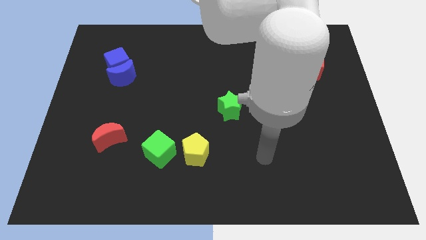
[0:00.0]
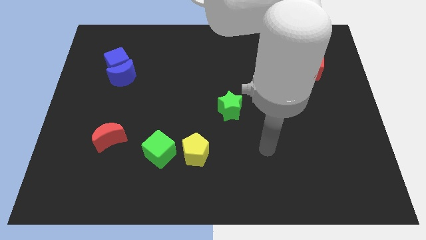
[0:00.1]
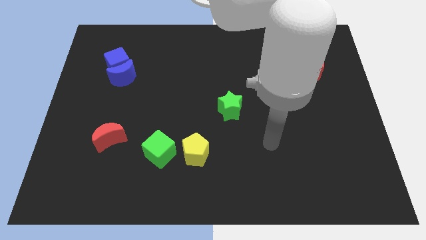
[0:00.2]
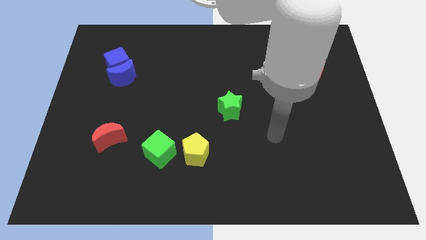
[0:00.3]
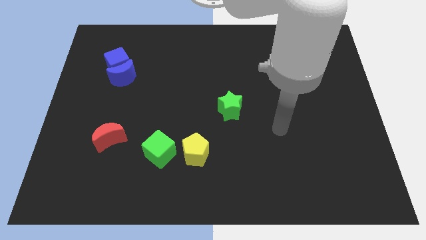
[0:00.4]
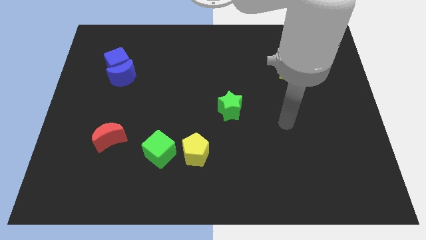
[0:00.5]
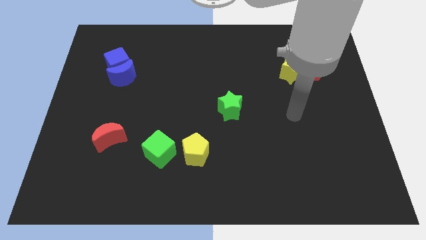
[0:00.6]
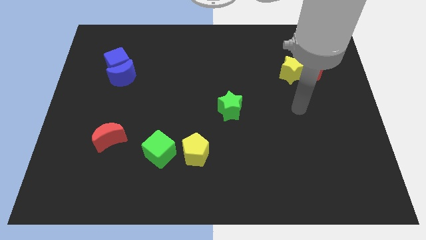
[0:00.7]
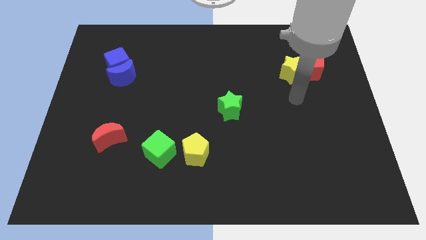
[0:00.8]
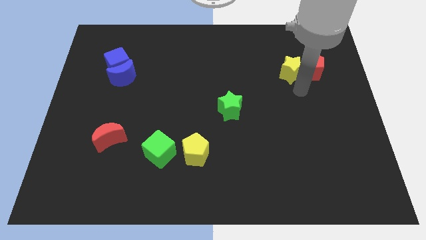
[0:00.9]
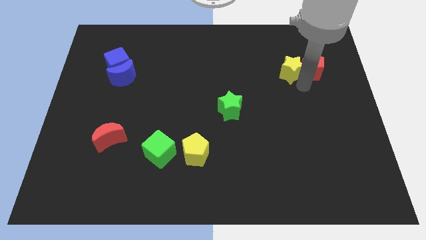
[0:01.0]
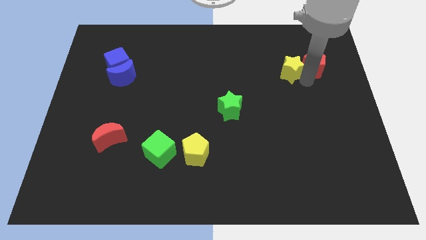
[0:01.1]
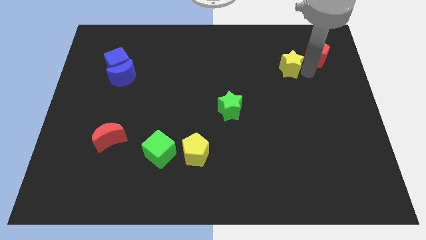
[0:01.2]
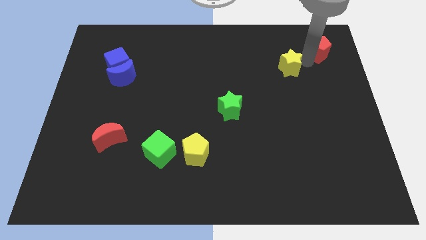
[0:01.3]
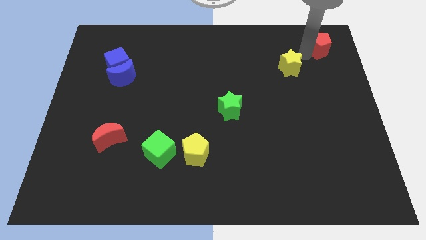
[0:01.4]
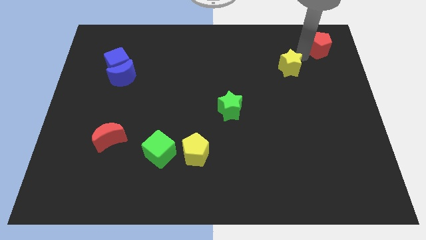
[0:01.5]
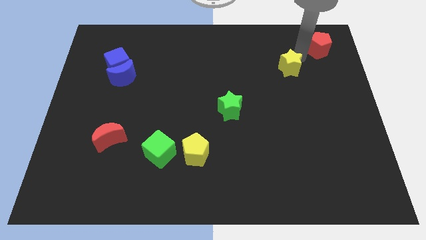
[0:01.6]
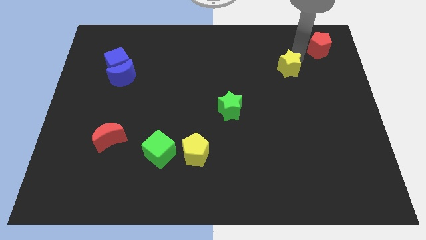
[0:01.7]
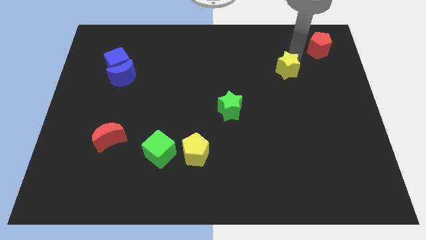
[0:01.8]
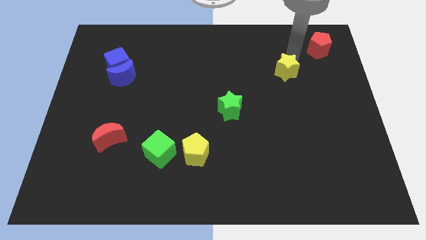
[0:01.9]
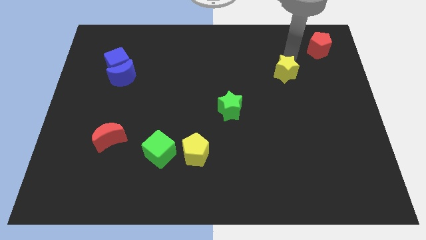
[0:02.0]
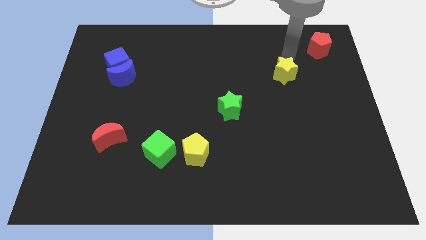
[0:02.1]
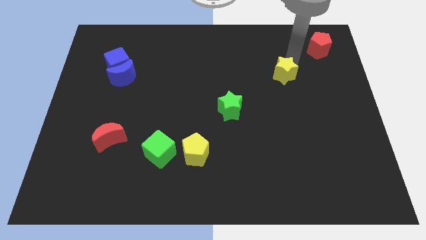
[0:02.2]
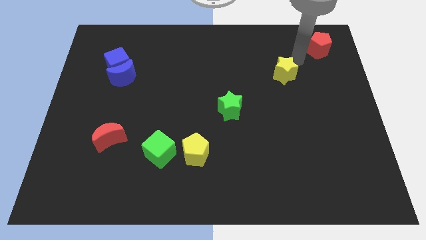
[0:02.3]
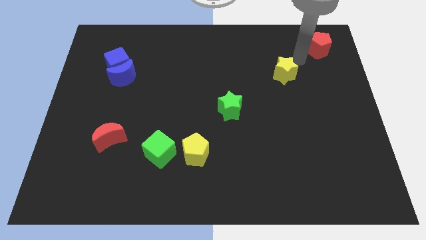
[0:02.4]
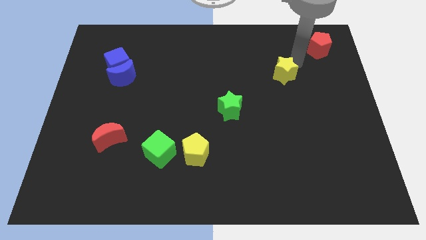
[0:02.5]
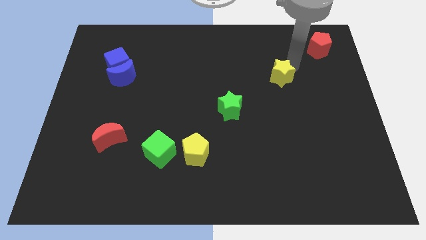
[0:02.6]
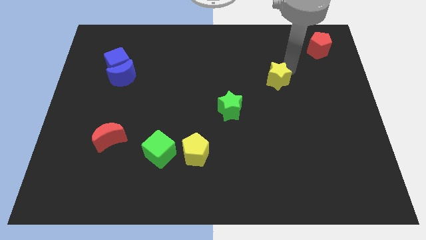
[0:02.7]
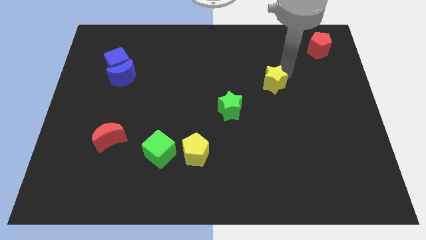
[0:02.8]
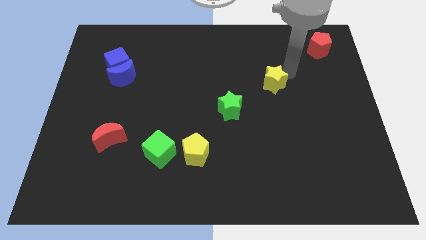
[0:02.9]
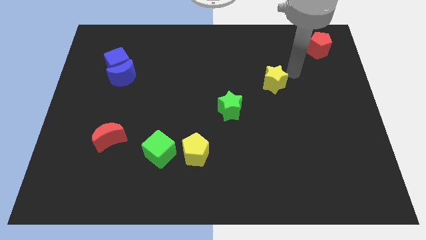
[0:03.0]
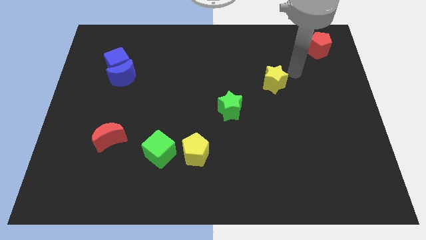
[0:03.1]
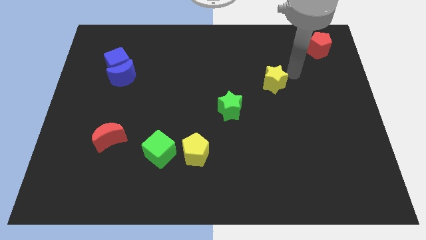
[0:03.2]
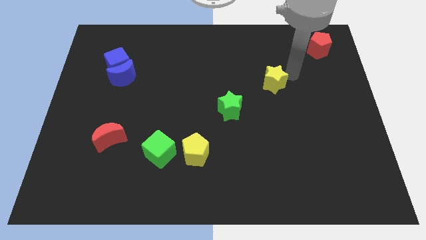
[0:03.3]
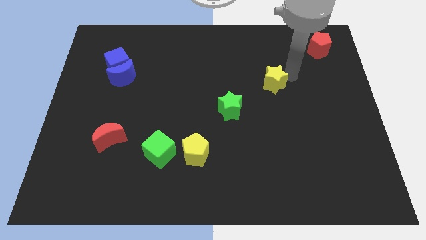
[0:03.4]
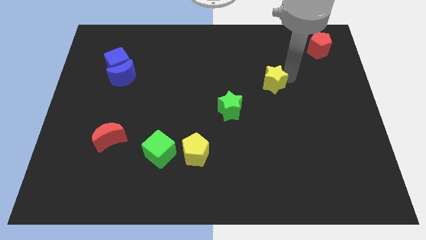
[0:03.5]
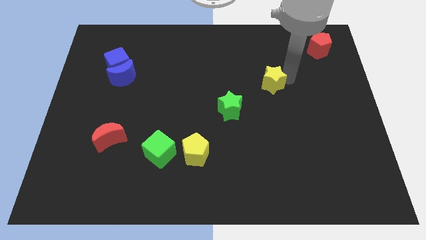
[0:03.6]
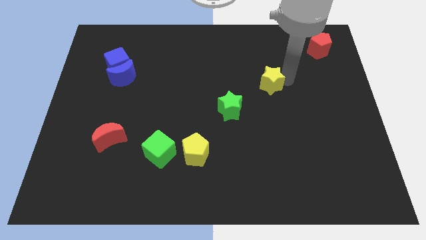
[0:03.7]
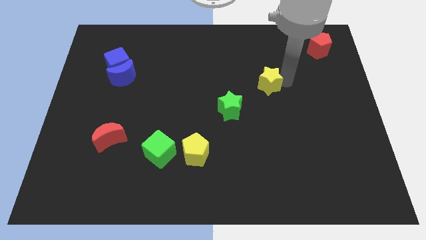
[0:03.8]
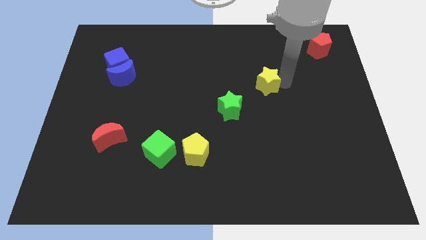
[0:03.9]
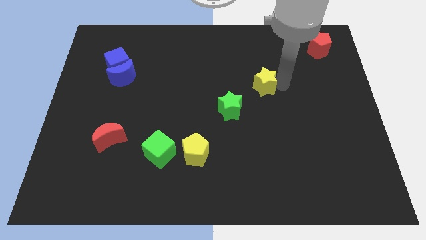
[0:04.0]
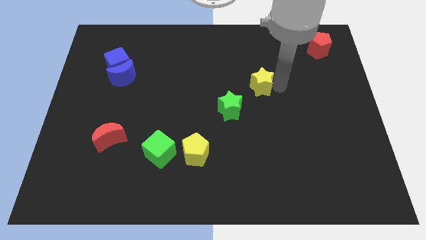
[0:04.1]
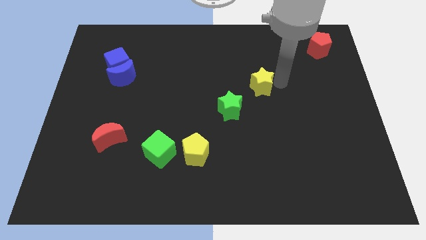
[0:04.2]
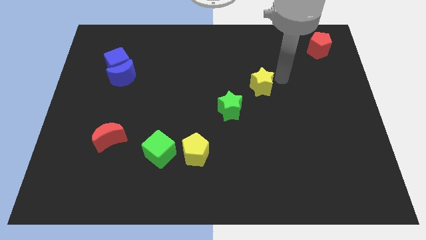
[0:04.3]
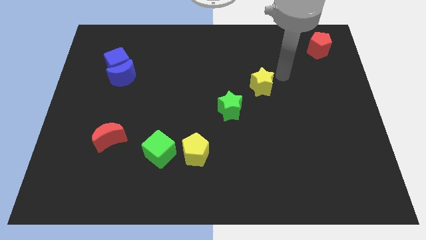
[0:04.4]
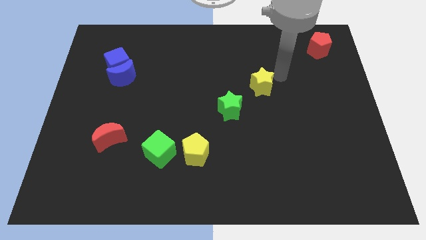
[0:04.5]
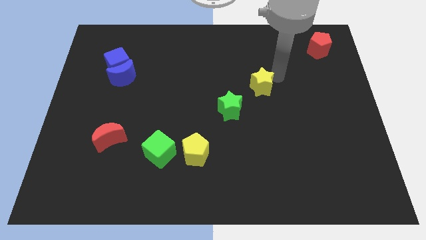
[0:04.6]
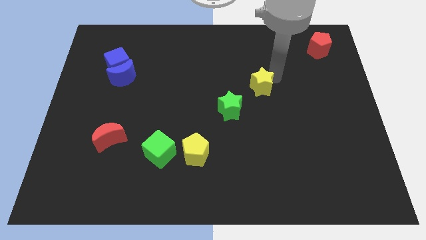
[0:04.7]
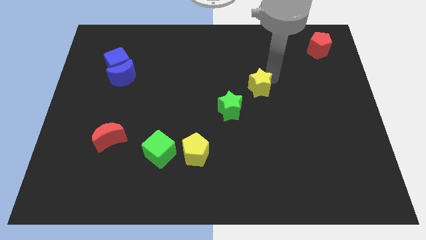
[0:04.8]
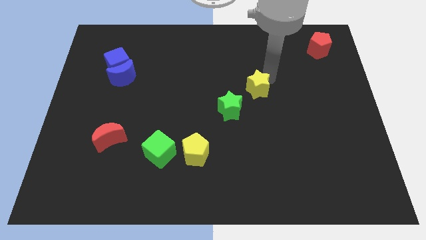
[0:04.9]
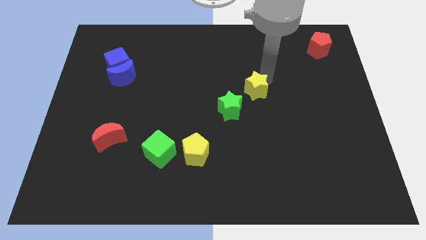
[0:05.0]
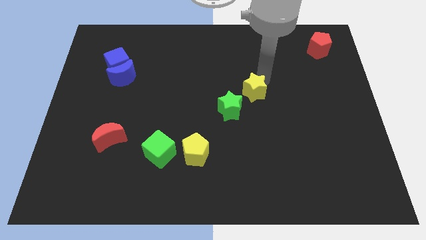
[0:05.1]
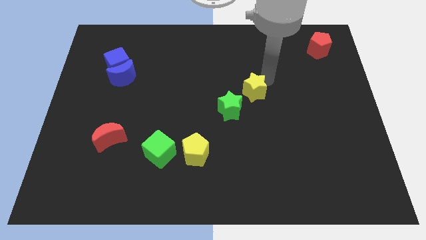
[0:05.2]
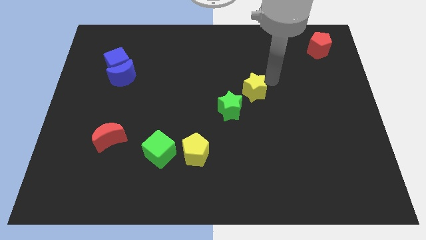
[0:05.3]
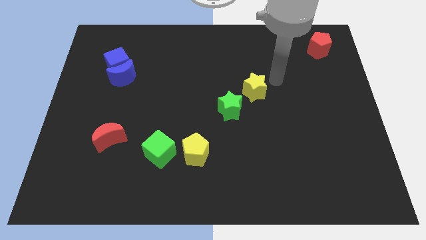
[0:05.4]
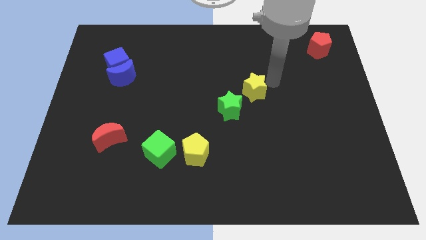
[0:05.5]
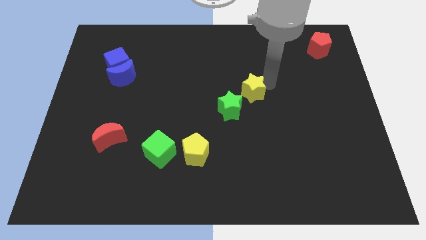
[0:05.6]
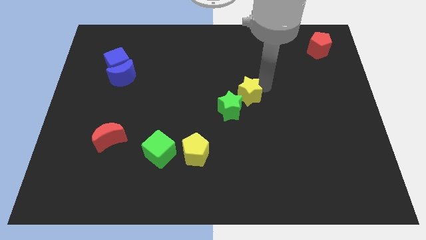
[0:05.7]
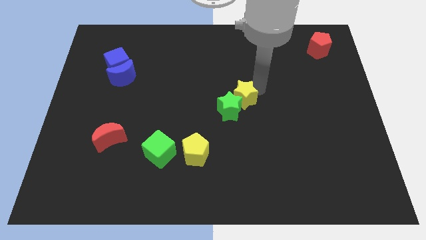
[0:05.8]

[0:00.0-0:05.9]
slide the yellow star next to the green star

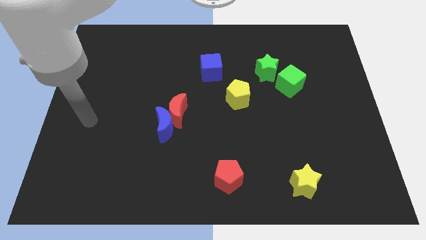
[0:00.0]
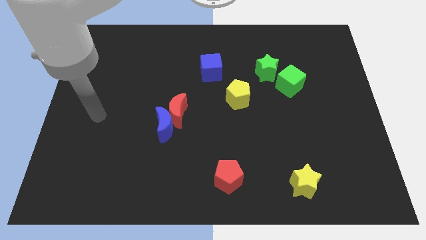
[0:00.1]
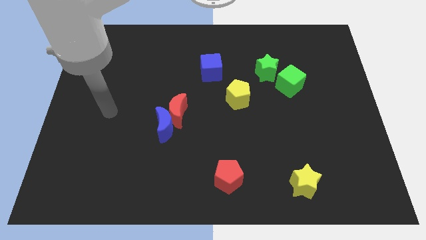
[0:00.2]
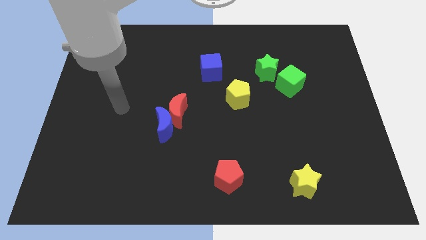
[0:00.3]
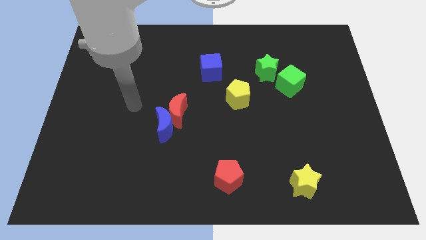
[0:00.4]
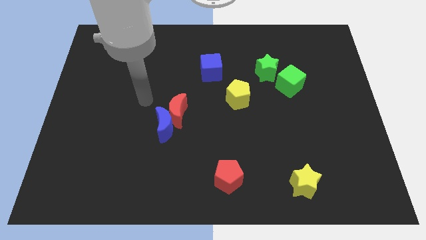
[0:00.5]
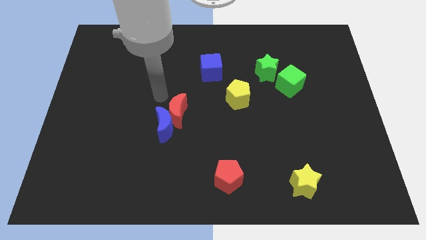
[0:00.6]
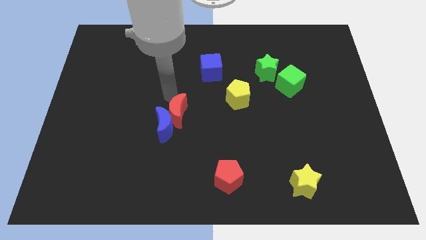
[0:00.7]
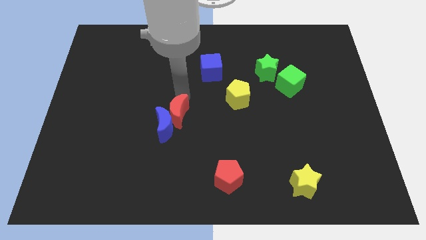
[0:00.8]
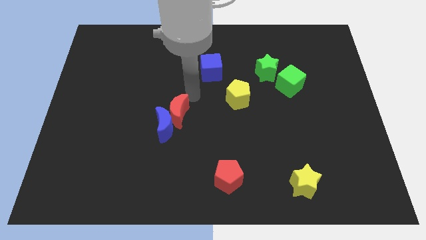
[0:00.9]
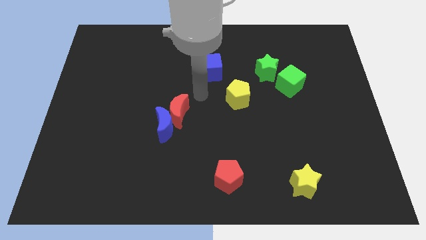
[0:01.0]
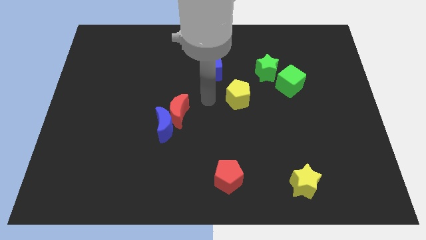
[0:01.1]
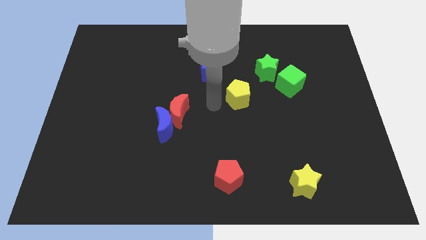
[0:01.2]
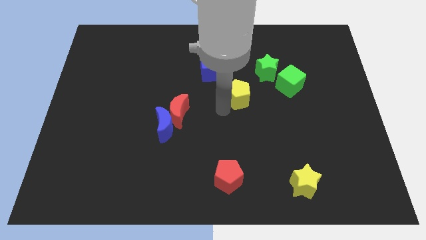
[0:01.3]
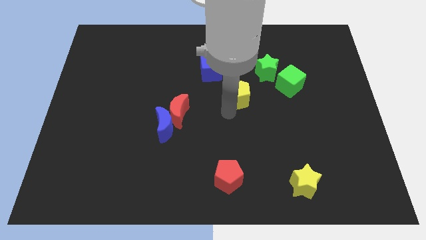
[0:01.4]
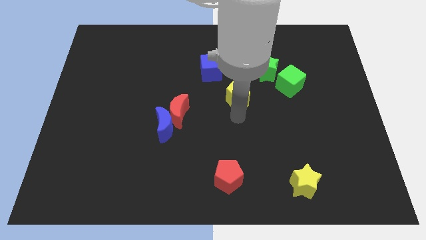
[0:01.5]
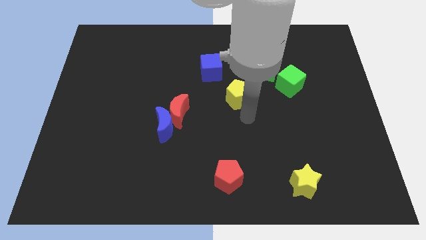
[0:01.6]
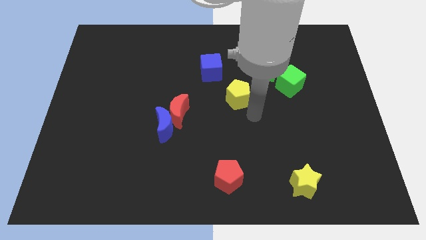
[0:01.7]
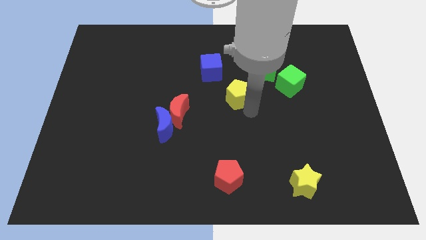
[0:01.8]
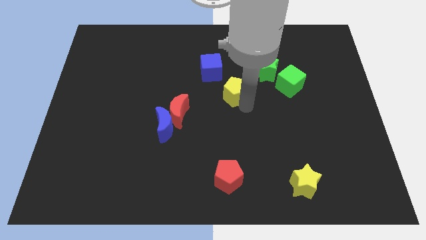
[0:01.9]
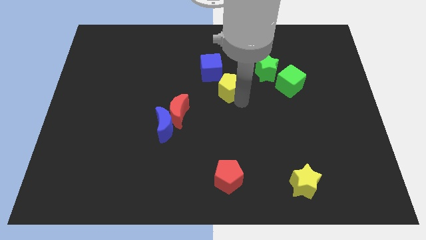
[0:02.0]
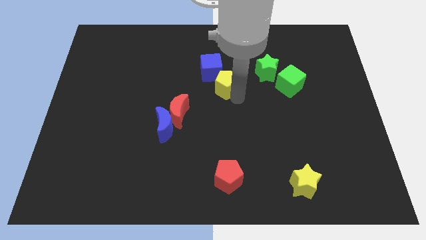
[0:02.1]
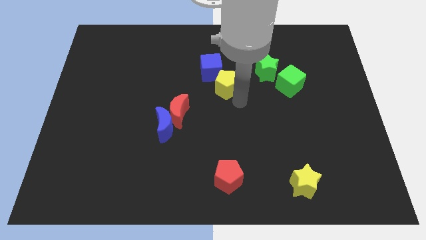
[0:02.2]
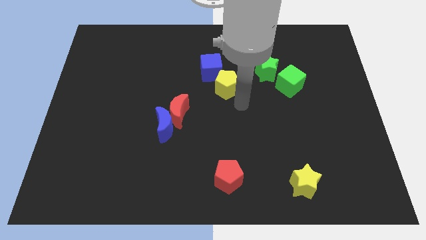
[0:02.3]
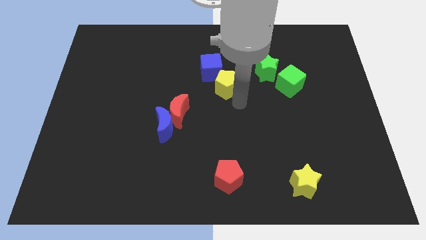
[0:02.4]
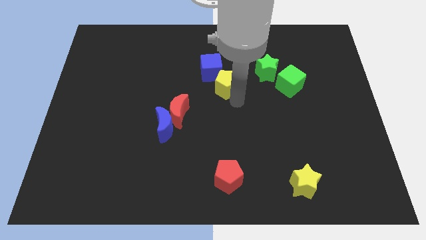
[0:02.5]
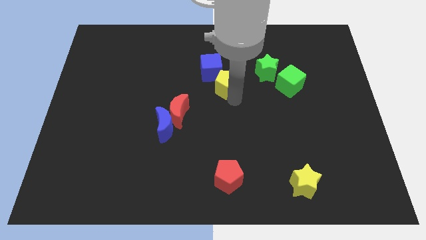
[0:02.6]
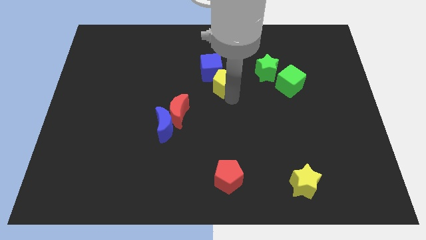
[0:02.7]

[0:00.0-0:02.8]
push the yellow pentagon to the blue cube
